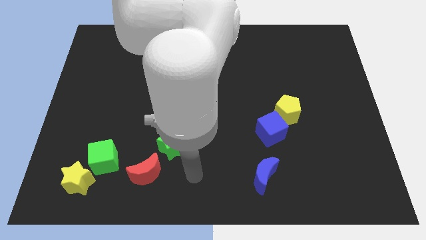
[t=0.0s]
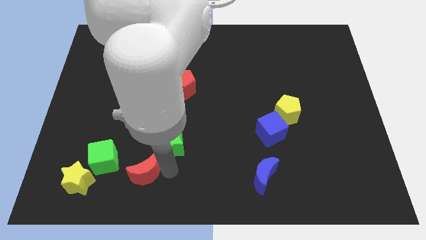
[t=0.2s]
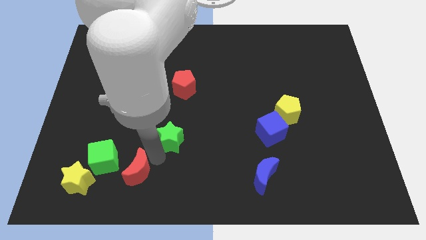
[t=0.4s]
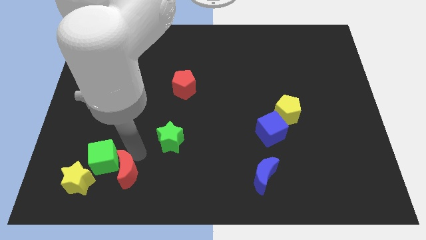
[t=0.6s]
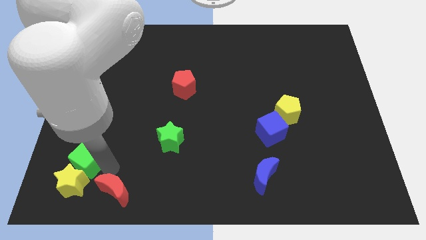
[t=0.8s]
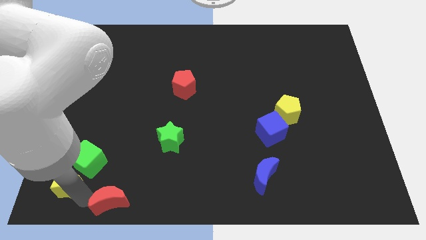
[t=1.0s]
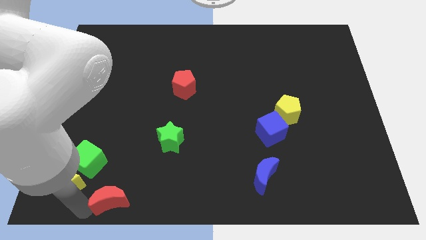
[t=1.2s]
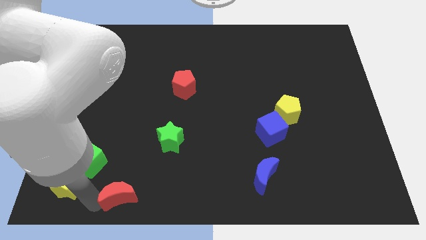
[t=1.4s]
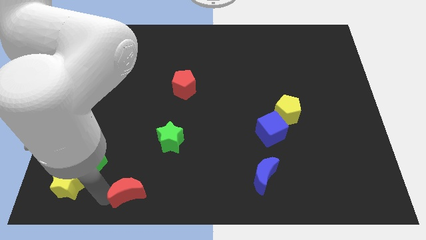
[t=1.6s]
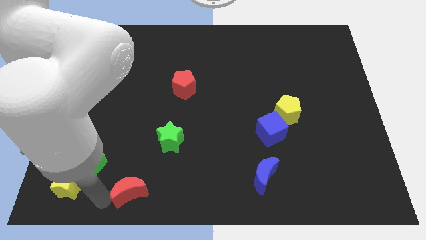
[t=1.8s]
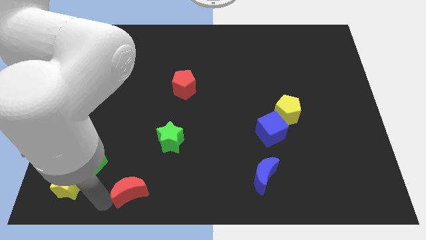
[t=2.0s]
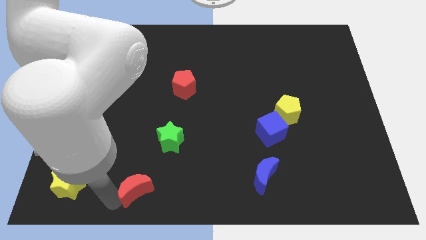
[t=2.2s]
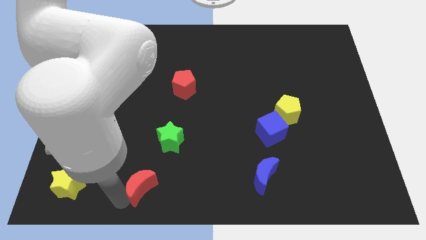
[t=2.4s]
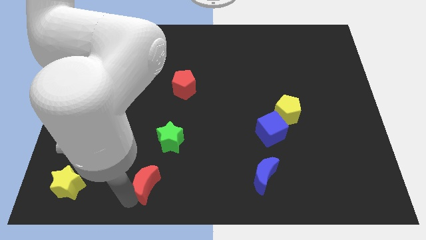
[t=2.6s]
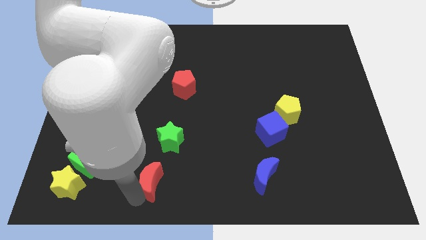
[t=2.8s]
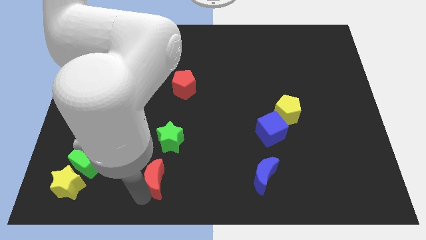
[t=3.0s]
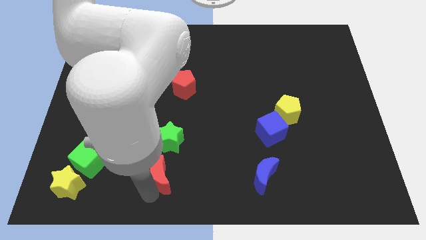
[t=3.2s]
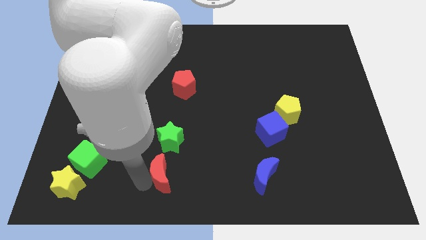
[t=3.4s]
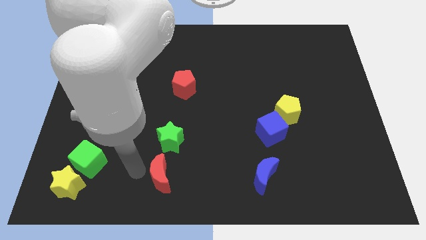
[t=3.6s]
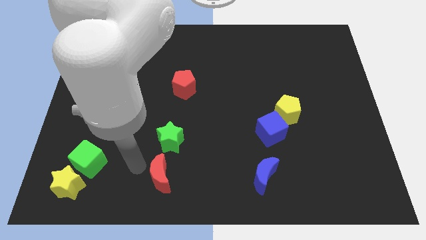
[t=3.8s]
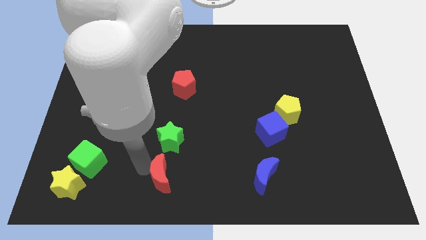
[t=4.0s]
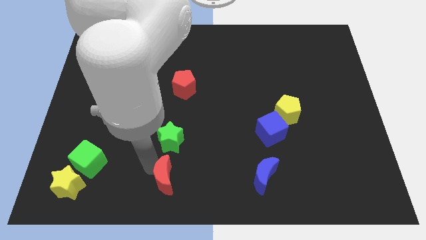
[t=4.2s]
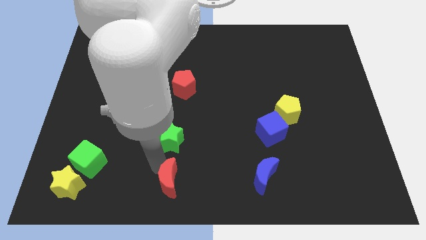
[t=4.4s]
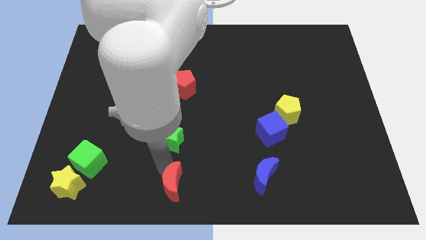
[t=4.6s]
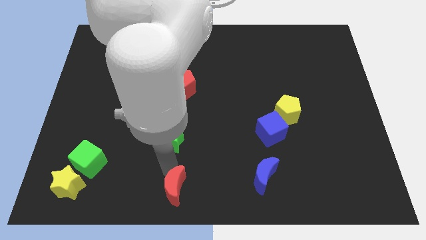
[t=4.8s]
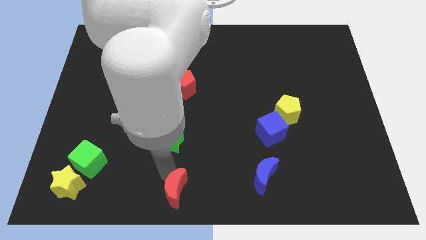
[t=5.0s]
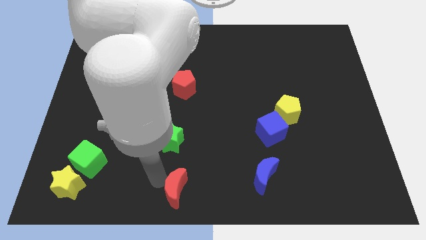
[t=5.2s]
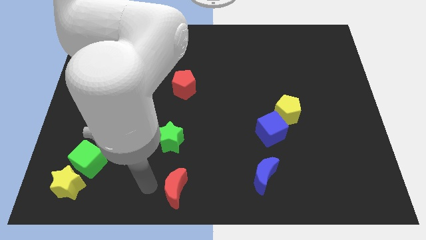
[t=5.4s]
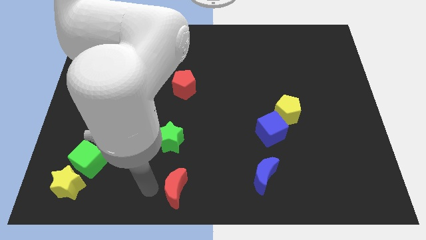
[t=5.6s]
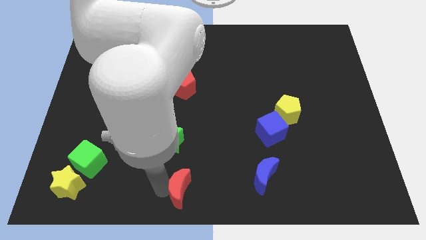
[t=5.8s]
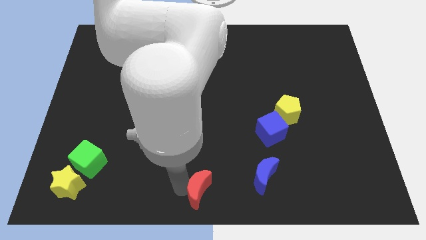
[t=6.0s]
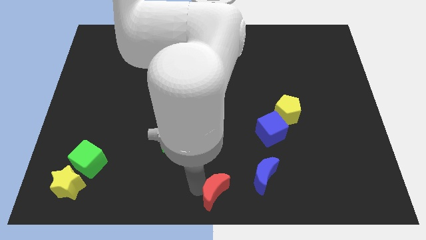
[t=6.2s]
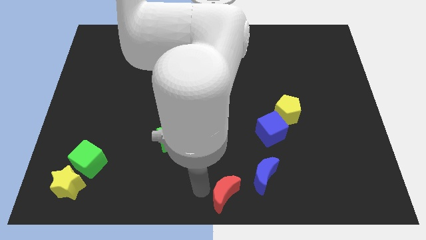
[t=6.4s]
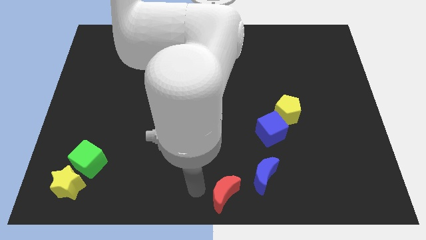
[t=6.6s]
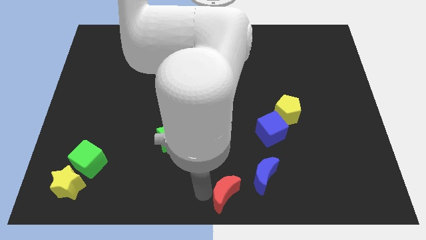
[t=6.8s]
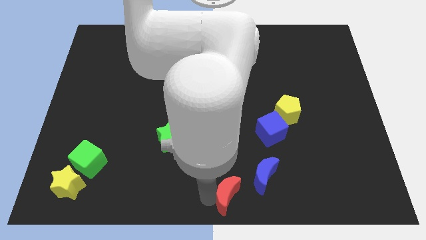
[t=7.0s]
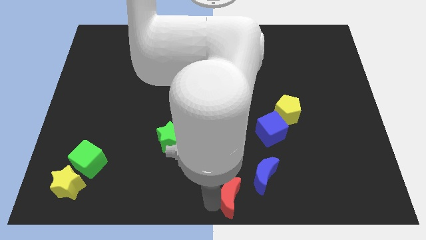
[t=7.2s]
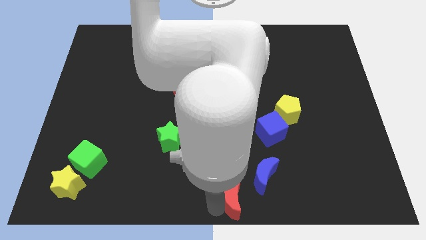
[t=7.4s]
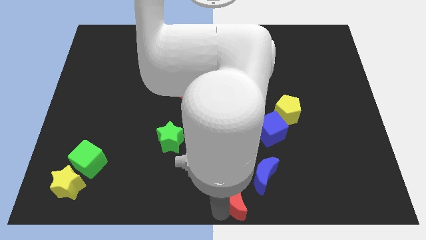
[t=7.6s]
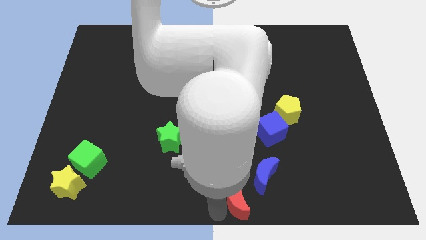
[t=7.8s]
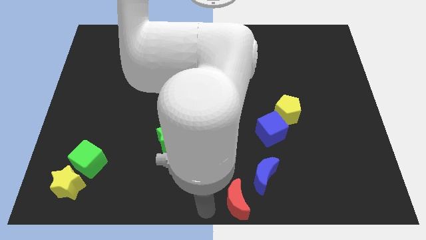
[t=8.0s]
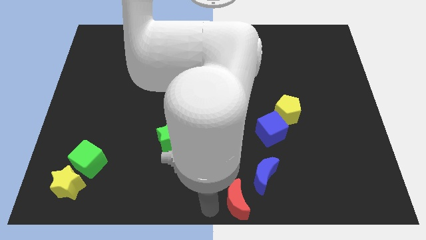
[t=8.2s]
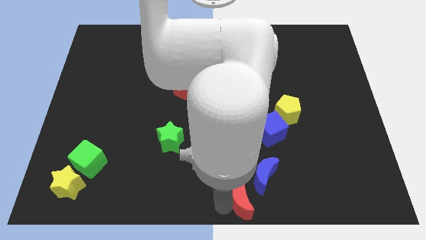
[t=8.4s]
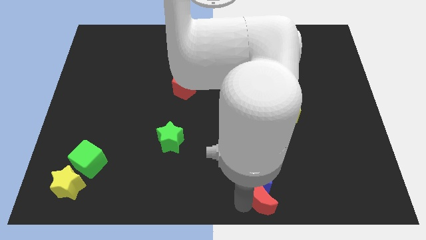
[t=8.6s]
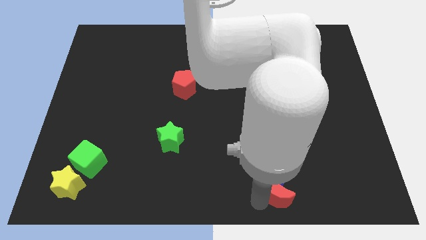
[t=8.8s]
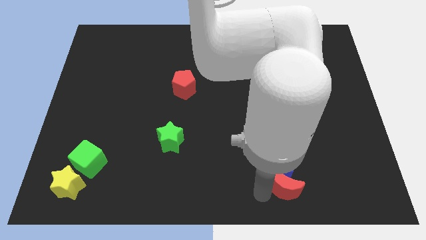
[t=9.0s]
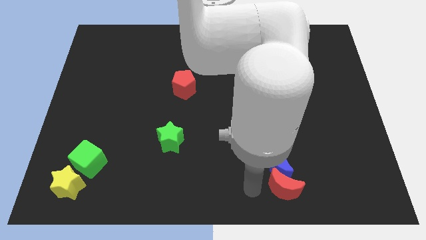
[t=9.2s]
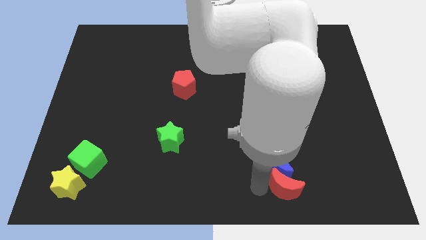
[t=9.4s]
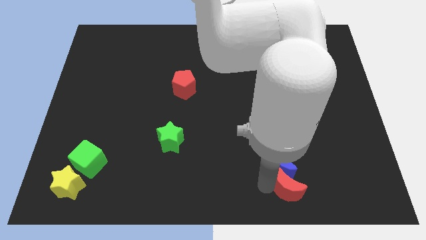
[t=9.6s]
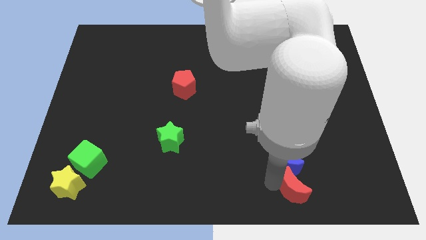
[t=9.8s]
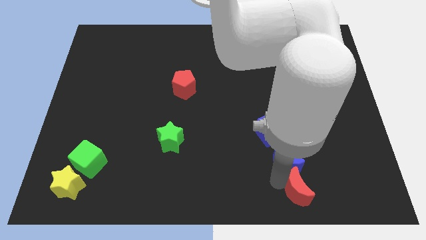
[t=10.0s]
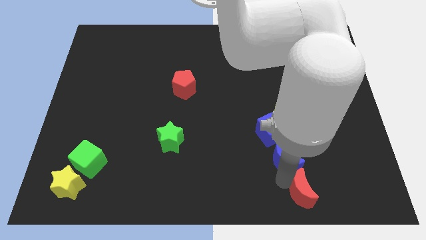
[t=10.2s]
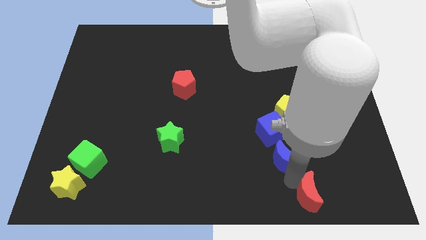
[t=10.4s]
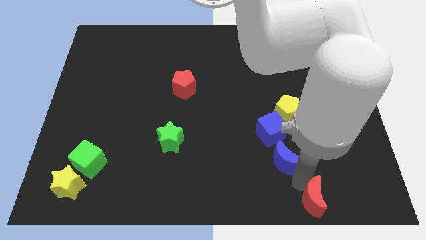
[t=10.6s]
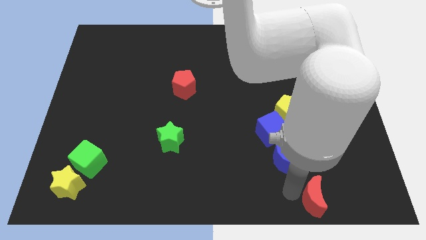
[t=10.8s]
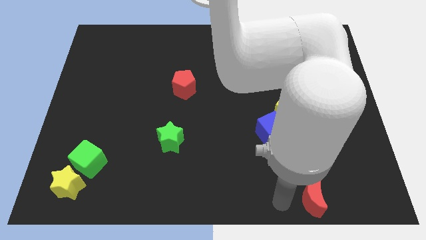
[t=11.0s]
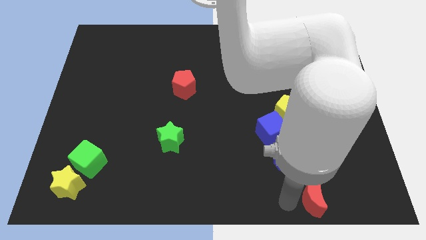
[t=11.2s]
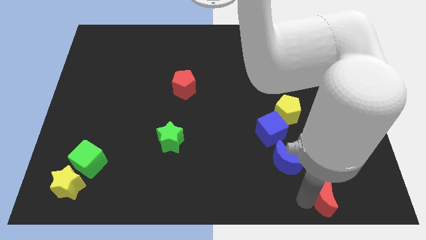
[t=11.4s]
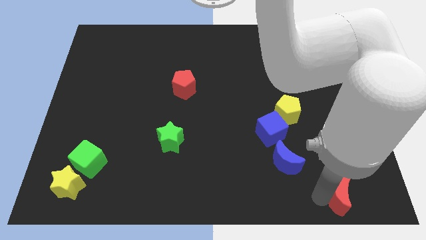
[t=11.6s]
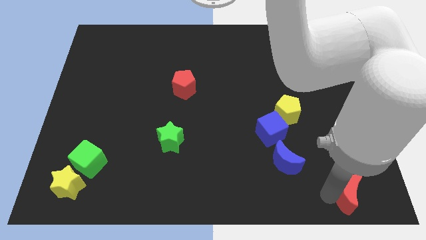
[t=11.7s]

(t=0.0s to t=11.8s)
push the red moon to the bottom right of the board

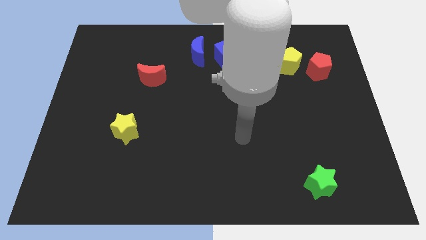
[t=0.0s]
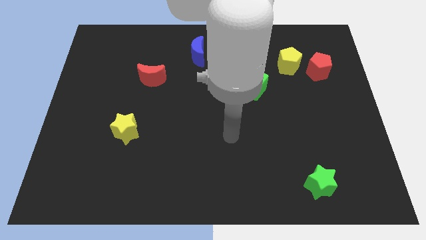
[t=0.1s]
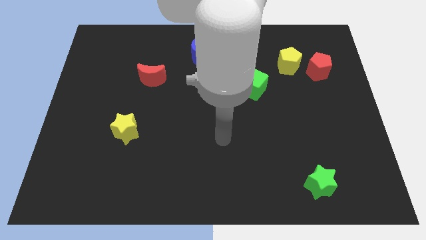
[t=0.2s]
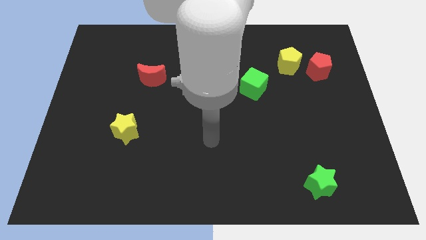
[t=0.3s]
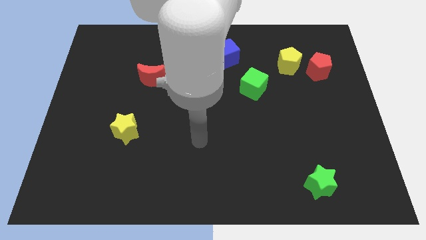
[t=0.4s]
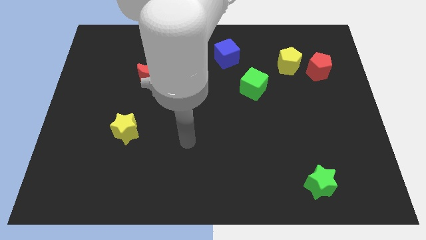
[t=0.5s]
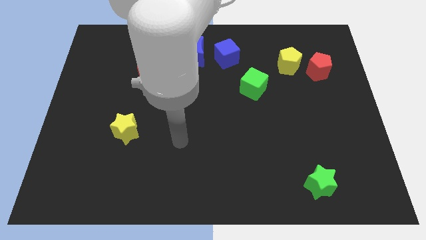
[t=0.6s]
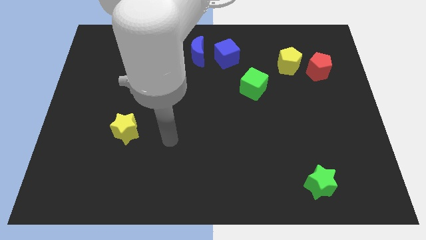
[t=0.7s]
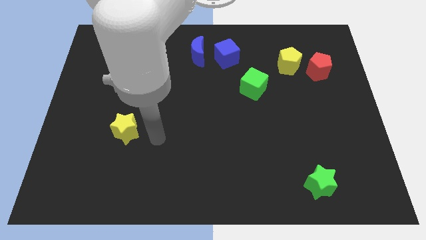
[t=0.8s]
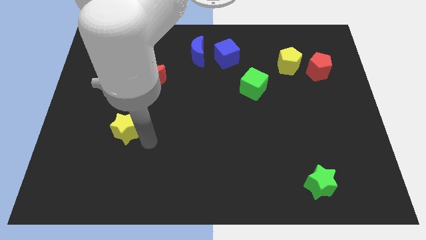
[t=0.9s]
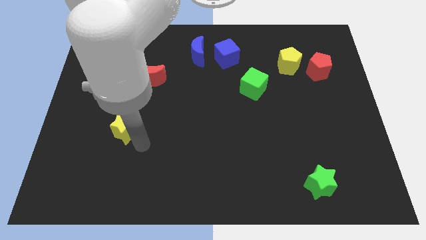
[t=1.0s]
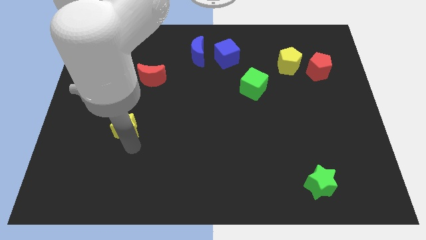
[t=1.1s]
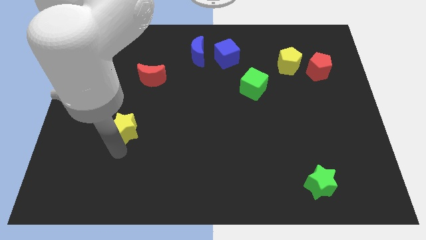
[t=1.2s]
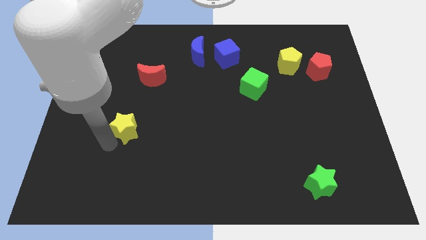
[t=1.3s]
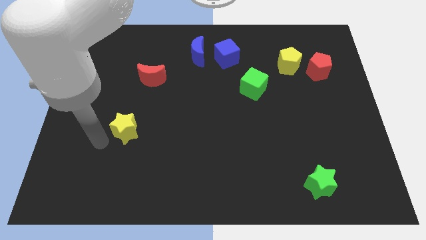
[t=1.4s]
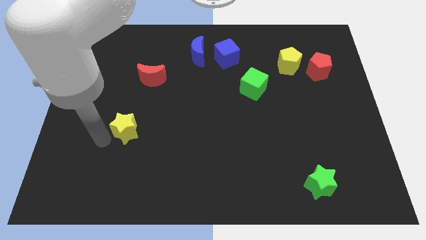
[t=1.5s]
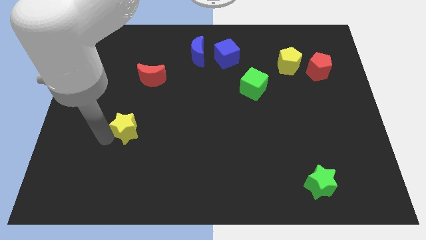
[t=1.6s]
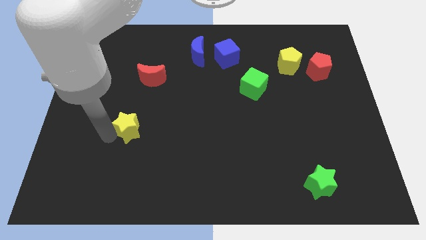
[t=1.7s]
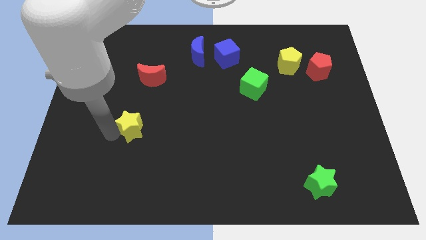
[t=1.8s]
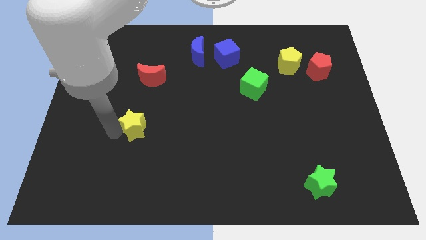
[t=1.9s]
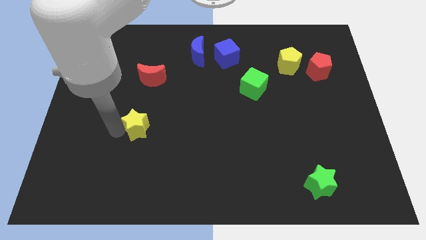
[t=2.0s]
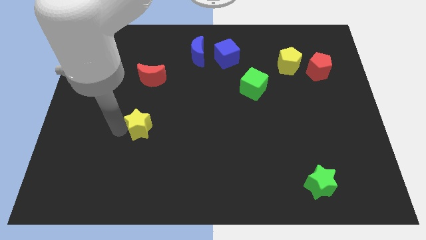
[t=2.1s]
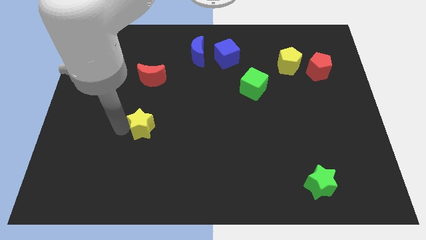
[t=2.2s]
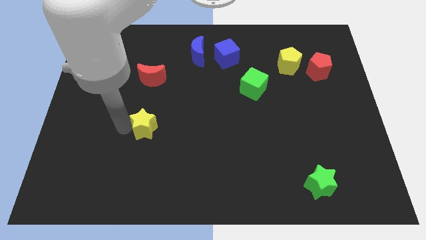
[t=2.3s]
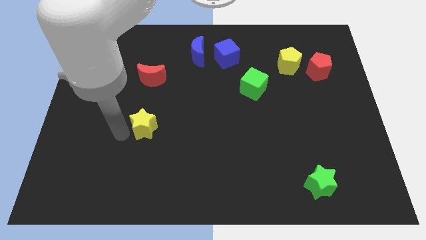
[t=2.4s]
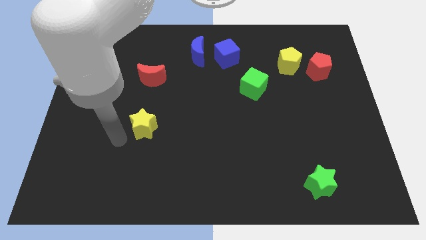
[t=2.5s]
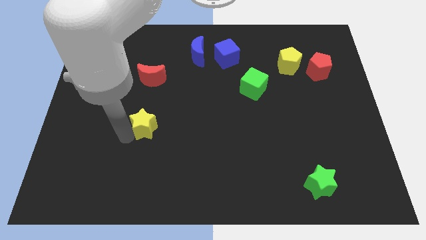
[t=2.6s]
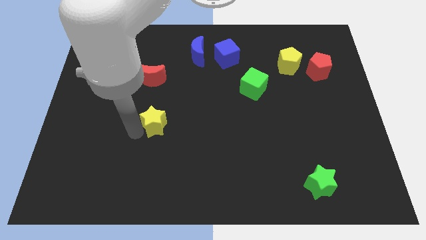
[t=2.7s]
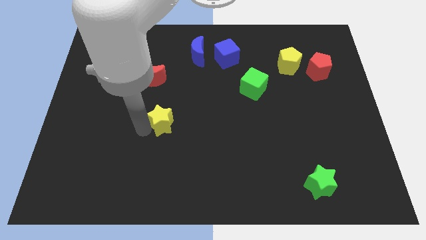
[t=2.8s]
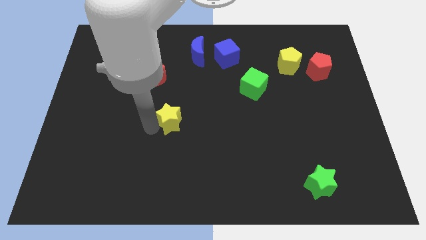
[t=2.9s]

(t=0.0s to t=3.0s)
push the yellow star to the middle
